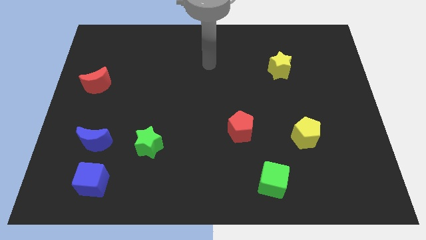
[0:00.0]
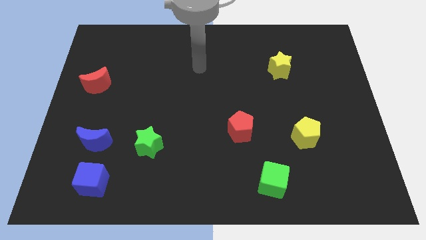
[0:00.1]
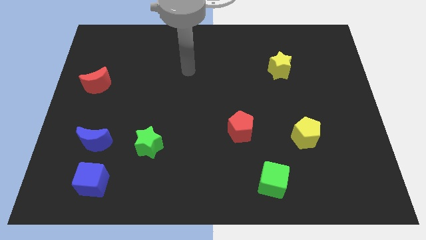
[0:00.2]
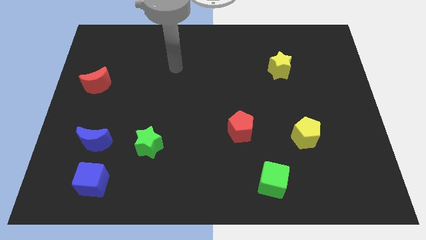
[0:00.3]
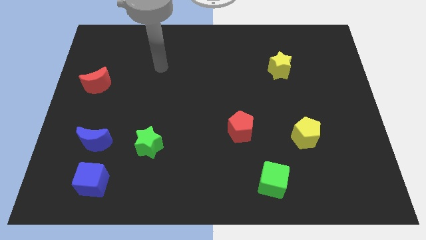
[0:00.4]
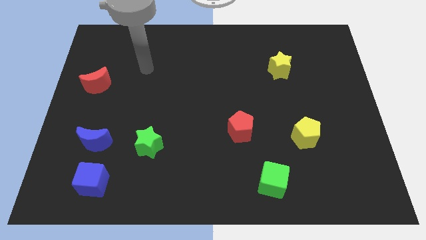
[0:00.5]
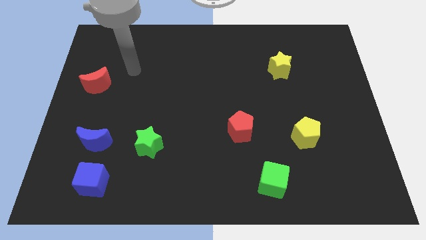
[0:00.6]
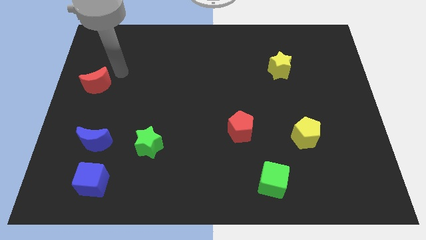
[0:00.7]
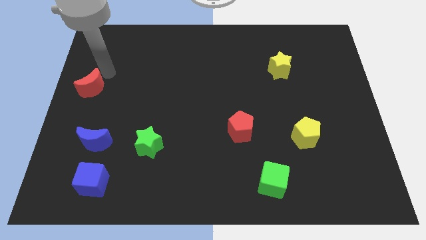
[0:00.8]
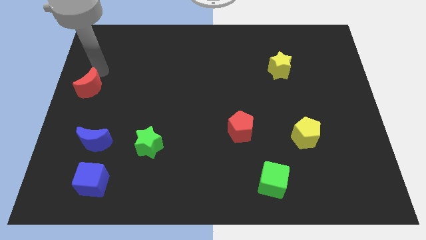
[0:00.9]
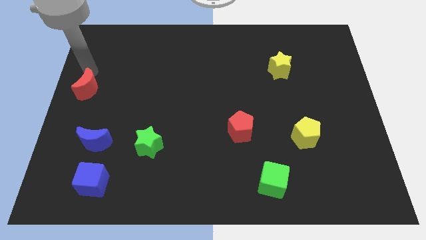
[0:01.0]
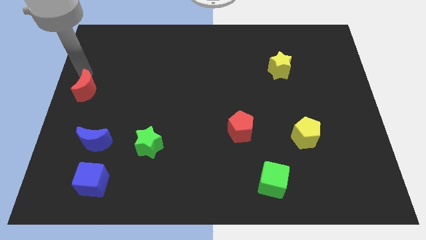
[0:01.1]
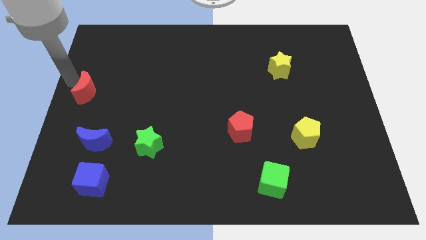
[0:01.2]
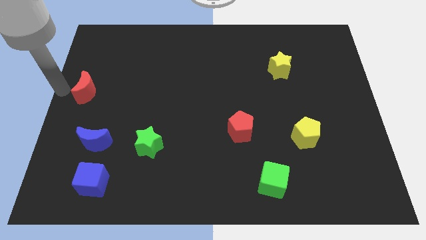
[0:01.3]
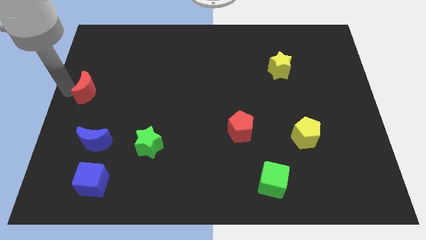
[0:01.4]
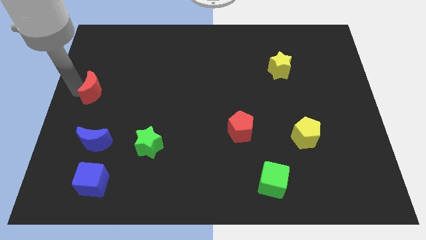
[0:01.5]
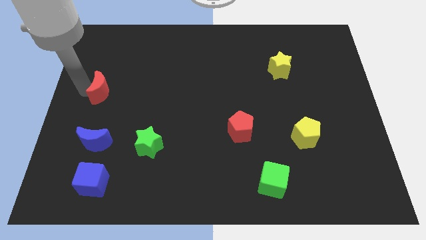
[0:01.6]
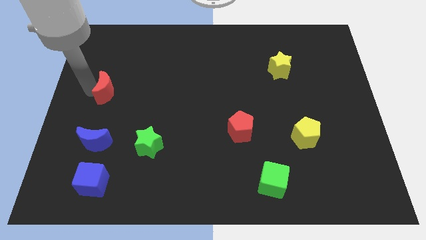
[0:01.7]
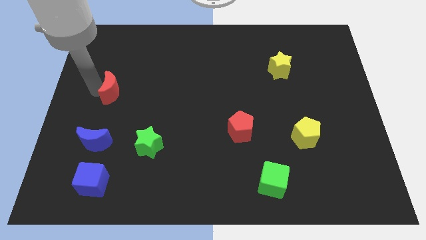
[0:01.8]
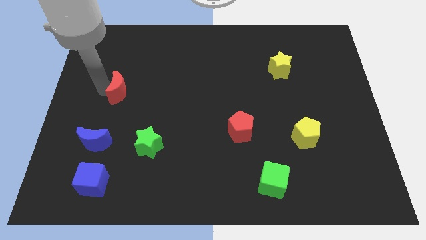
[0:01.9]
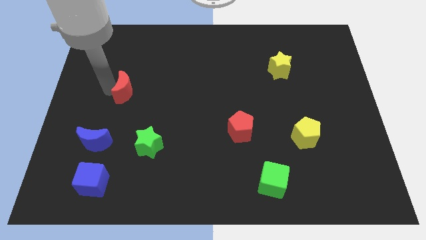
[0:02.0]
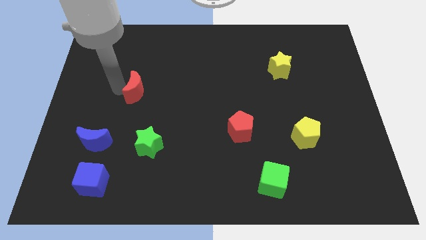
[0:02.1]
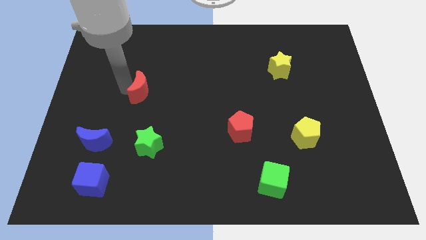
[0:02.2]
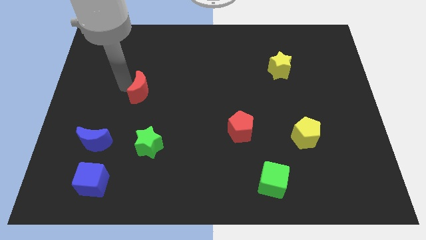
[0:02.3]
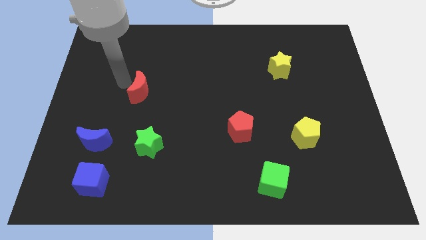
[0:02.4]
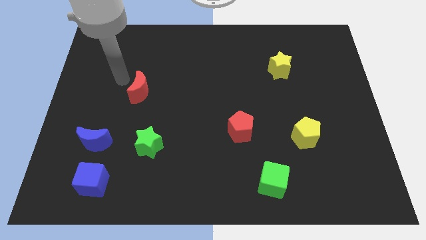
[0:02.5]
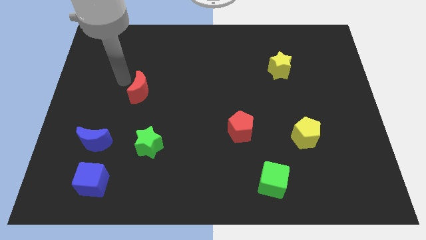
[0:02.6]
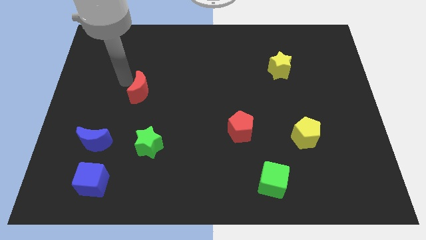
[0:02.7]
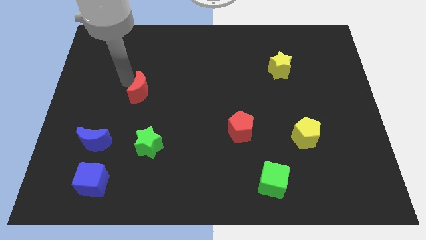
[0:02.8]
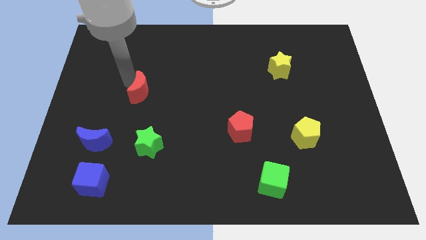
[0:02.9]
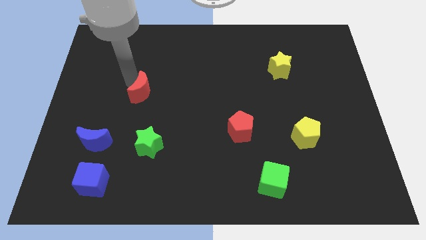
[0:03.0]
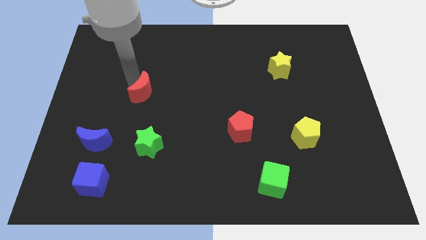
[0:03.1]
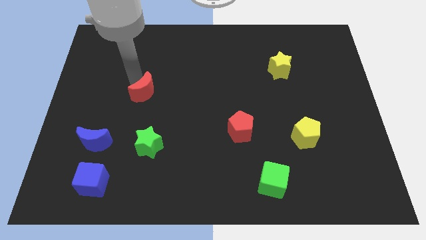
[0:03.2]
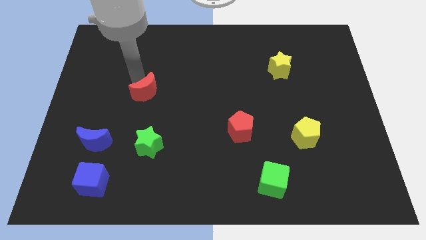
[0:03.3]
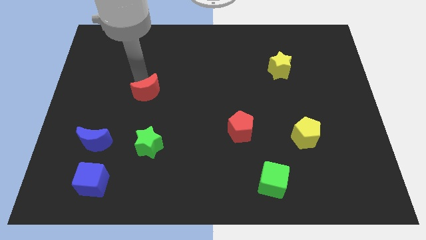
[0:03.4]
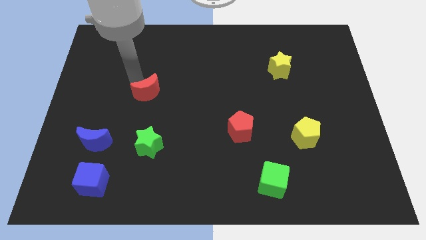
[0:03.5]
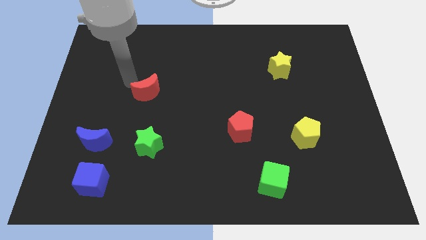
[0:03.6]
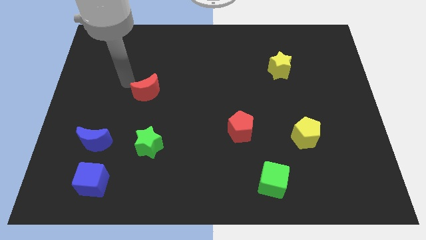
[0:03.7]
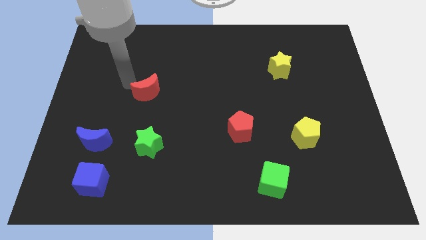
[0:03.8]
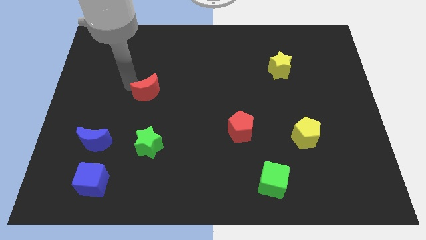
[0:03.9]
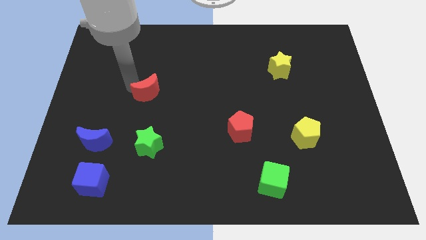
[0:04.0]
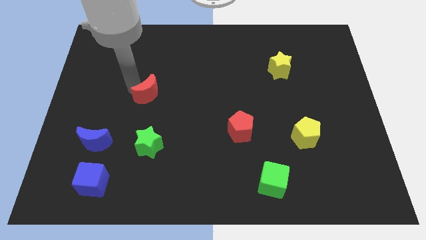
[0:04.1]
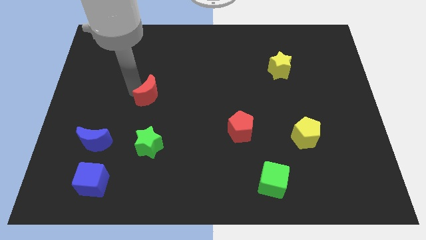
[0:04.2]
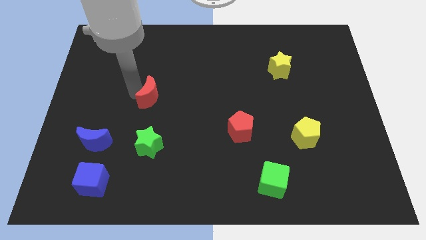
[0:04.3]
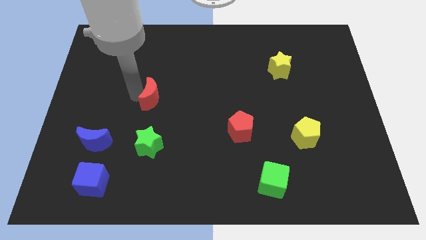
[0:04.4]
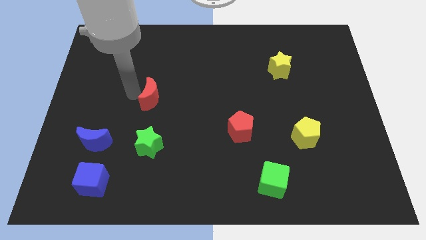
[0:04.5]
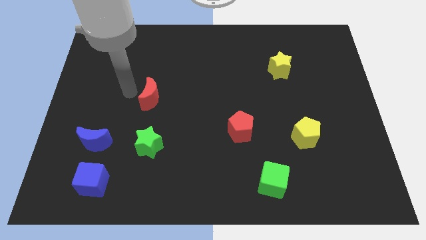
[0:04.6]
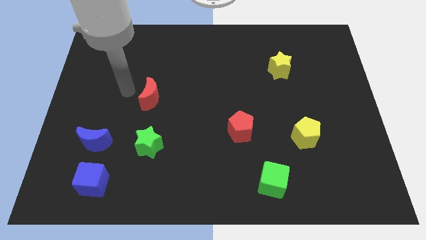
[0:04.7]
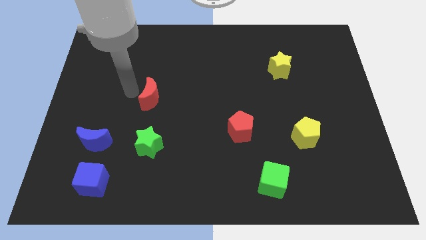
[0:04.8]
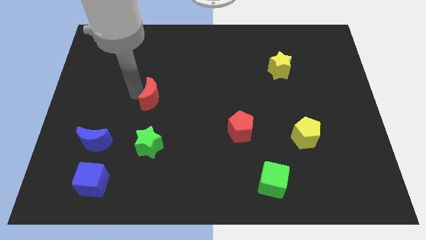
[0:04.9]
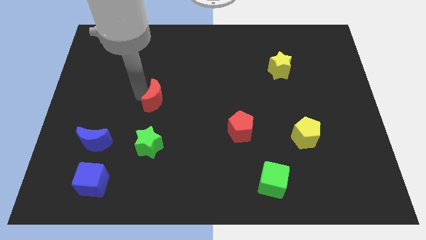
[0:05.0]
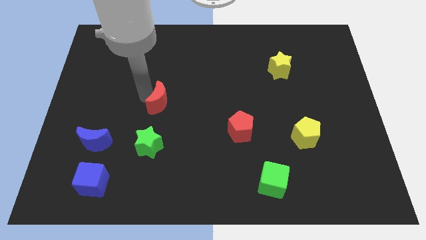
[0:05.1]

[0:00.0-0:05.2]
slide the red moon to the center
